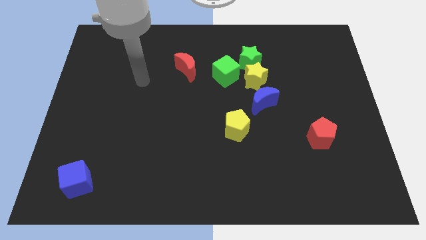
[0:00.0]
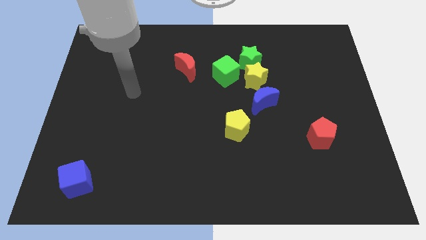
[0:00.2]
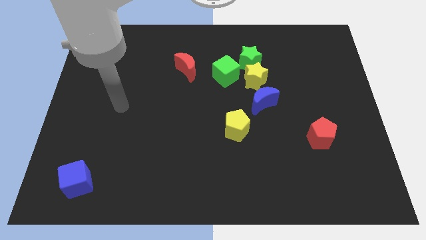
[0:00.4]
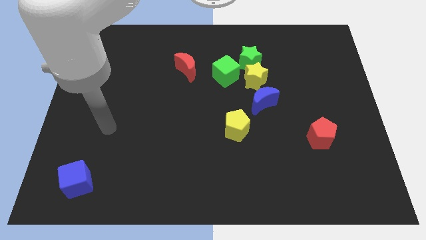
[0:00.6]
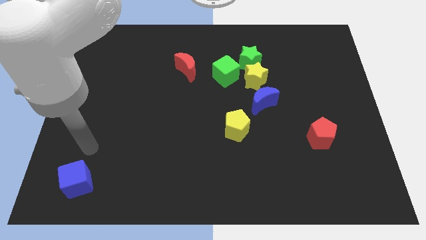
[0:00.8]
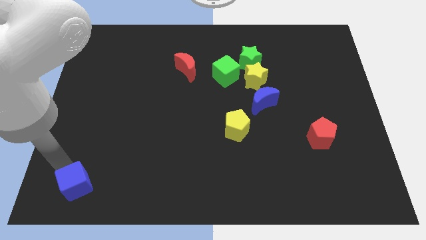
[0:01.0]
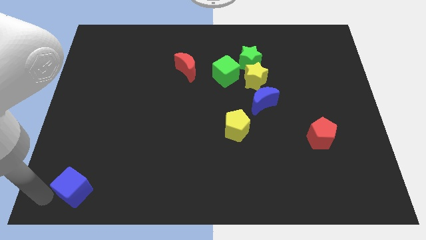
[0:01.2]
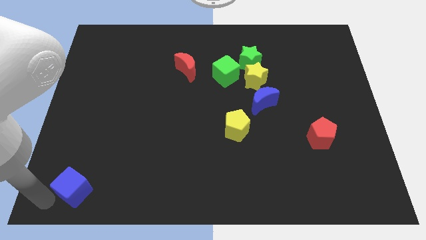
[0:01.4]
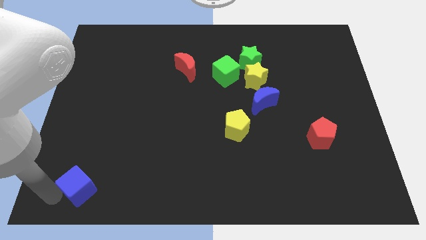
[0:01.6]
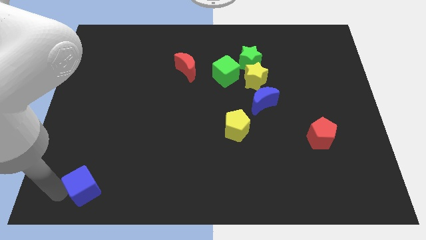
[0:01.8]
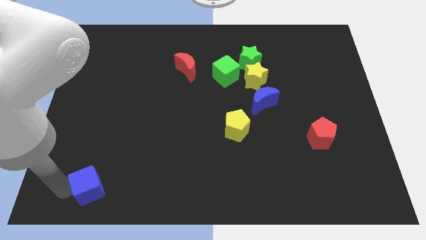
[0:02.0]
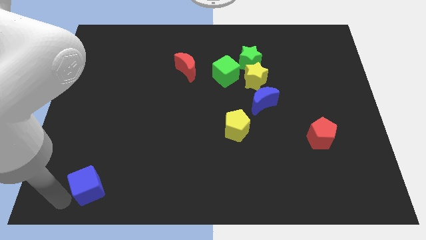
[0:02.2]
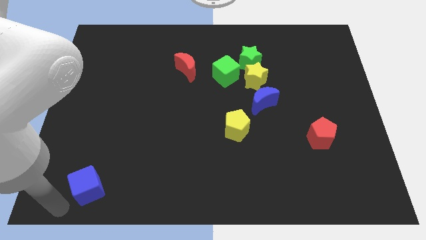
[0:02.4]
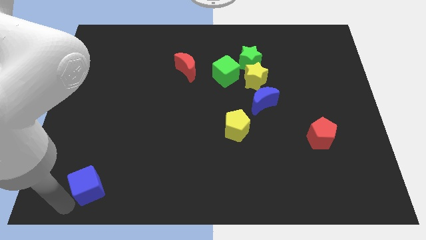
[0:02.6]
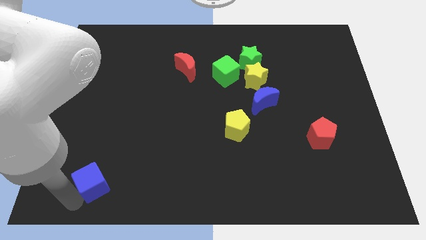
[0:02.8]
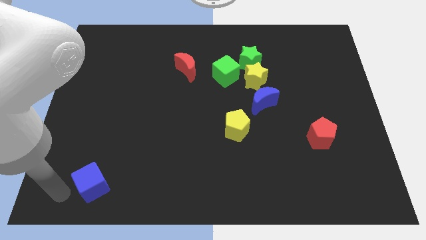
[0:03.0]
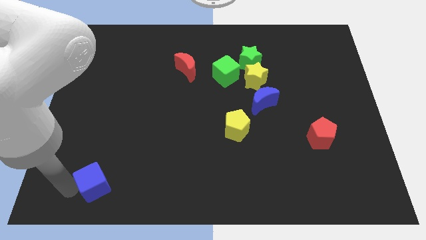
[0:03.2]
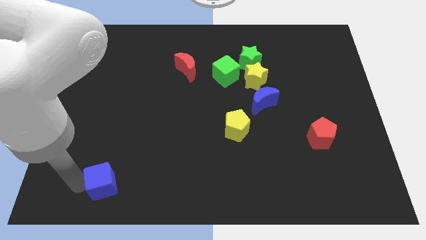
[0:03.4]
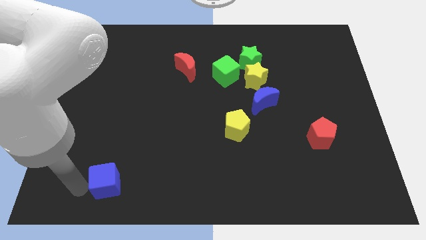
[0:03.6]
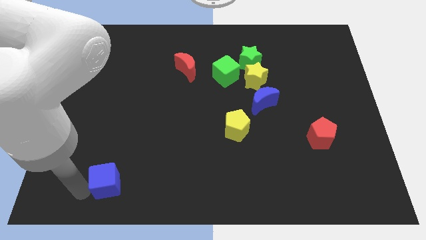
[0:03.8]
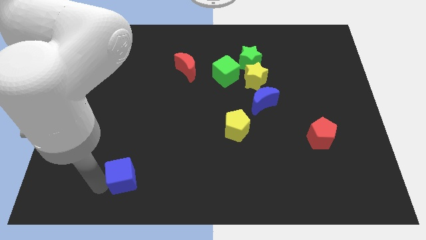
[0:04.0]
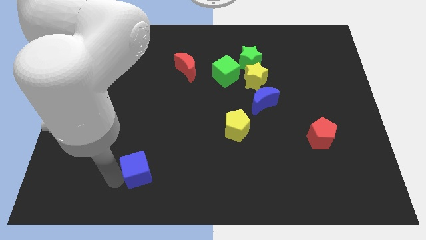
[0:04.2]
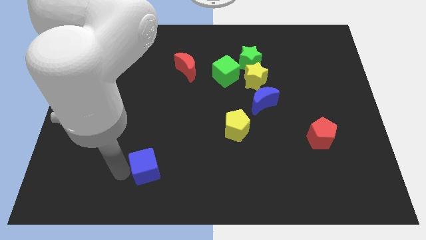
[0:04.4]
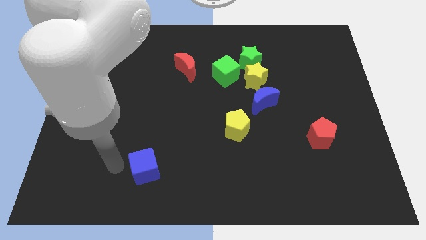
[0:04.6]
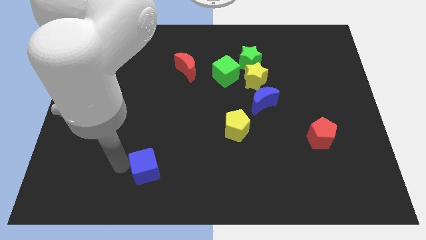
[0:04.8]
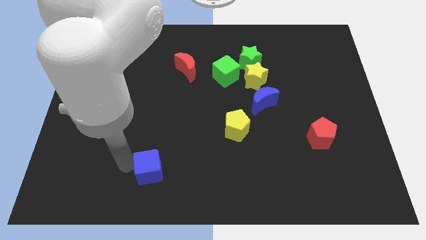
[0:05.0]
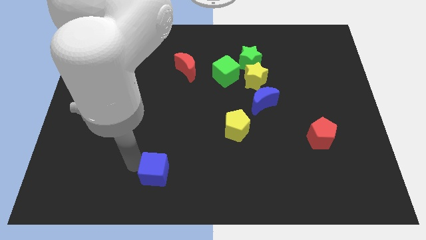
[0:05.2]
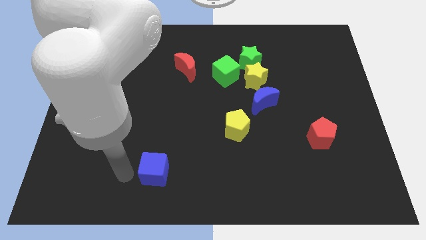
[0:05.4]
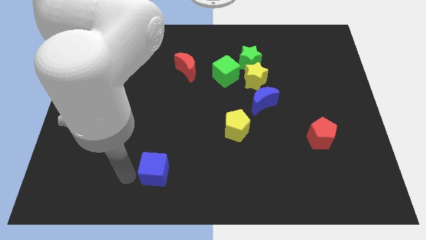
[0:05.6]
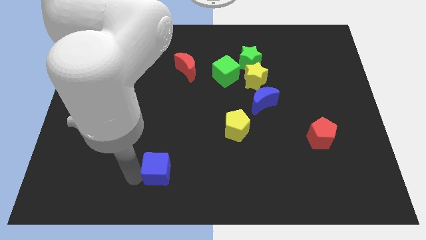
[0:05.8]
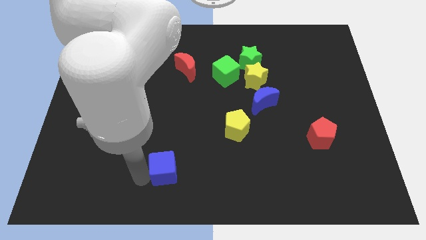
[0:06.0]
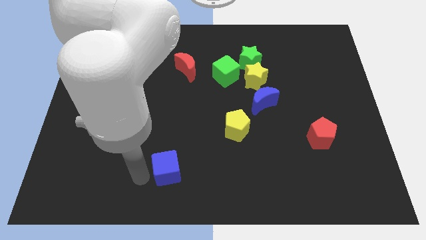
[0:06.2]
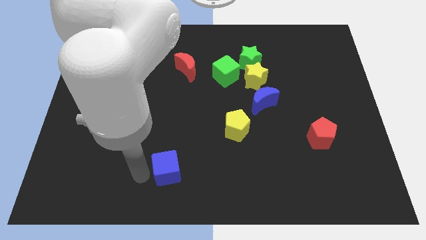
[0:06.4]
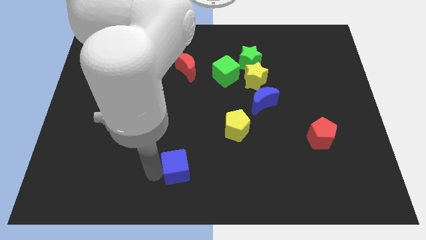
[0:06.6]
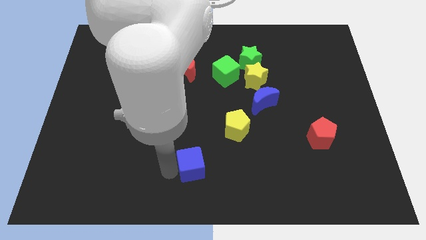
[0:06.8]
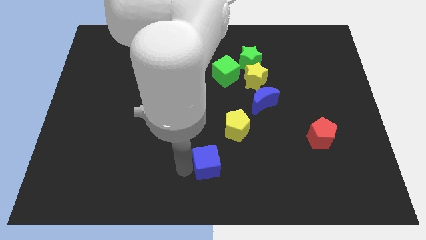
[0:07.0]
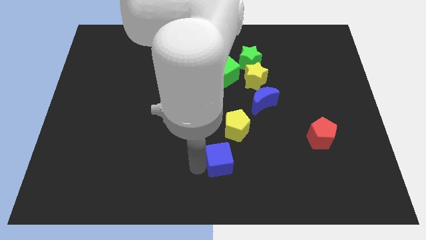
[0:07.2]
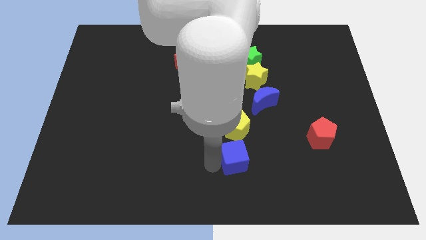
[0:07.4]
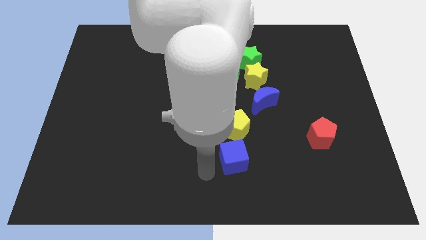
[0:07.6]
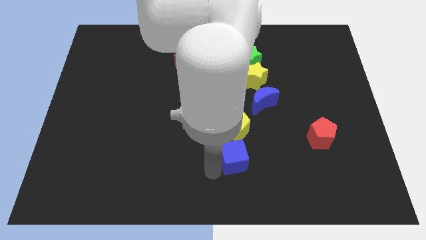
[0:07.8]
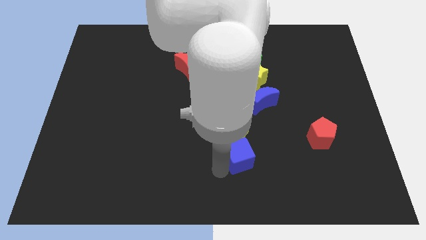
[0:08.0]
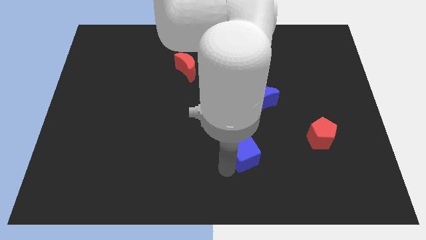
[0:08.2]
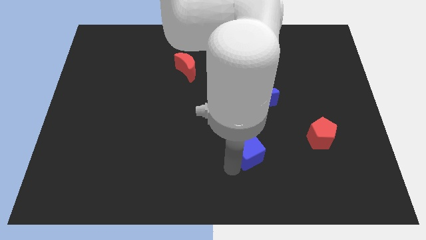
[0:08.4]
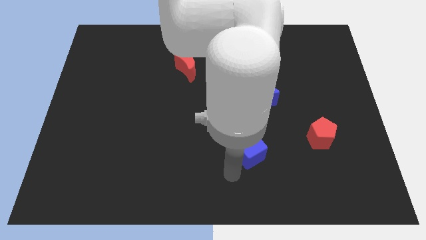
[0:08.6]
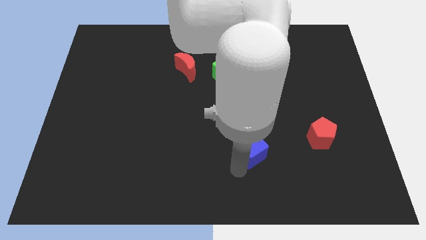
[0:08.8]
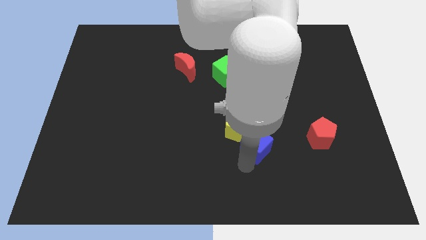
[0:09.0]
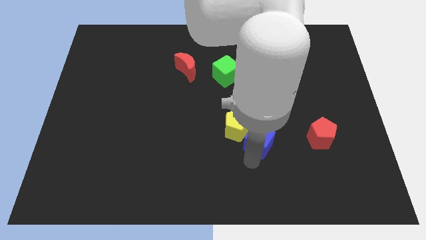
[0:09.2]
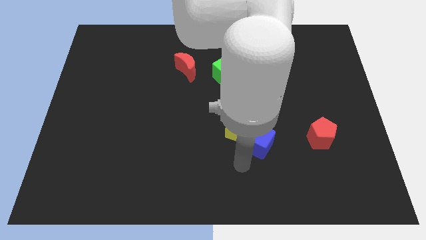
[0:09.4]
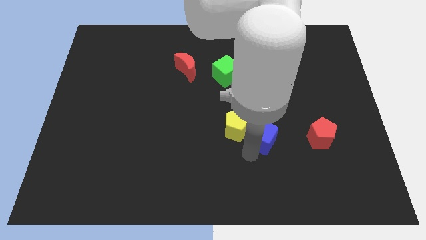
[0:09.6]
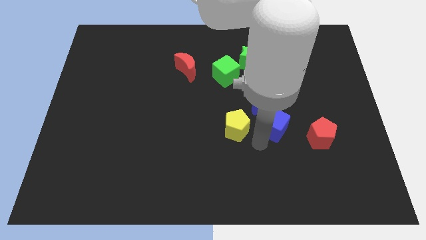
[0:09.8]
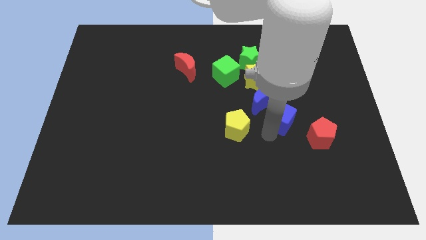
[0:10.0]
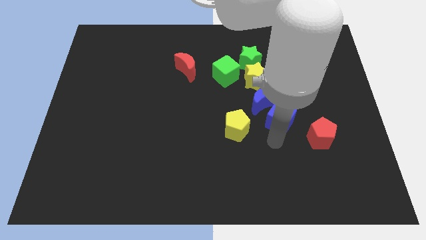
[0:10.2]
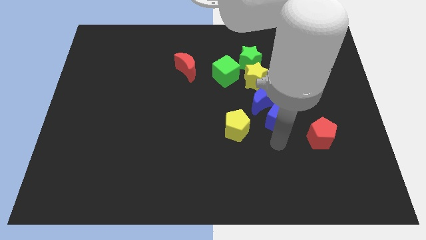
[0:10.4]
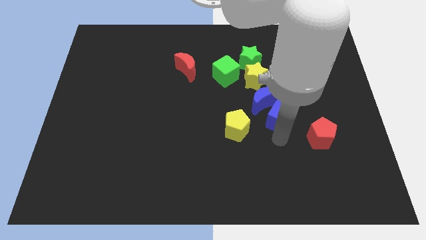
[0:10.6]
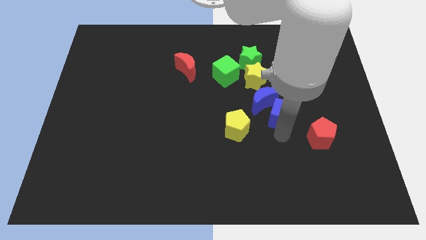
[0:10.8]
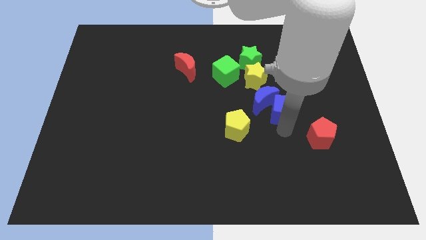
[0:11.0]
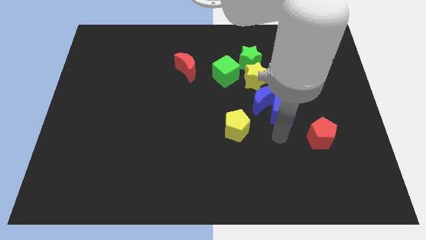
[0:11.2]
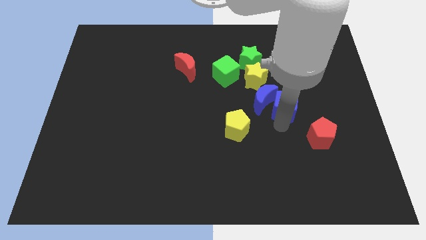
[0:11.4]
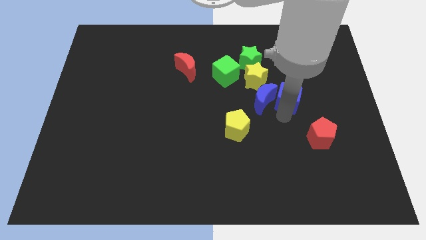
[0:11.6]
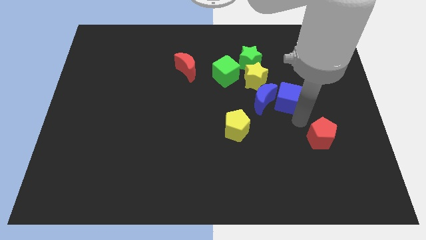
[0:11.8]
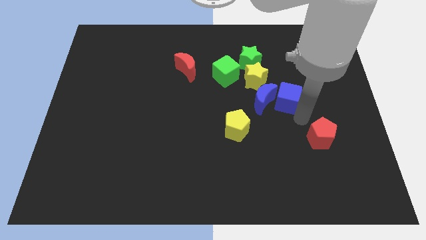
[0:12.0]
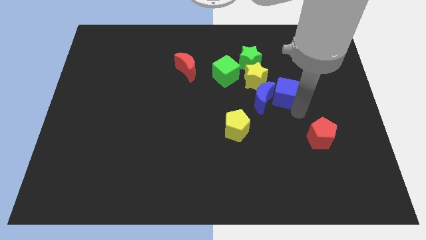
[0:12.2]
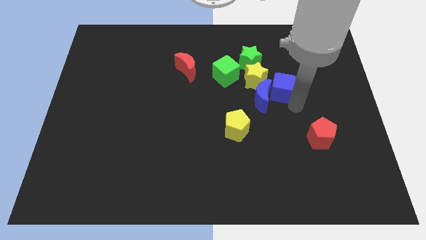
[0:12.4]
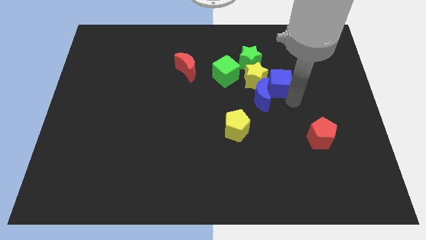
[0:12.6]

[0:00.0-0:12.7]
move the blue cube just right of the green cube
